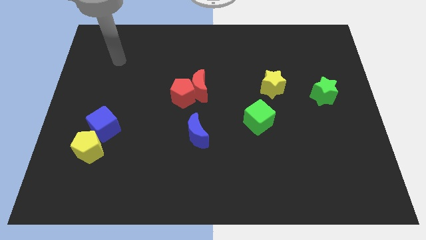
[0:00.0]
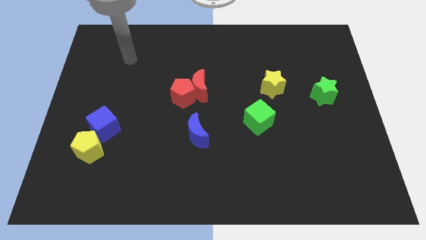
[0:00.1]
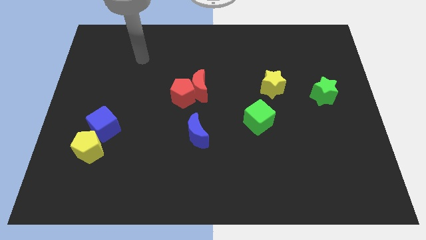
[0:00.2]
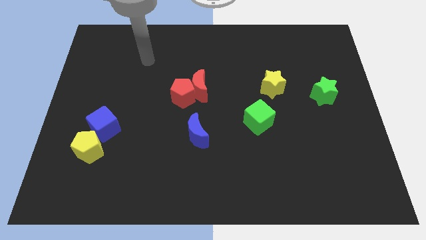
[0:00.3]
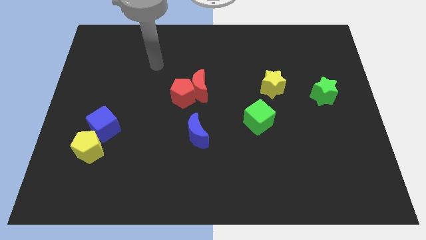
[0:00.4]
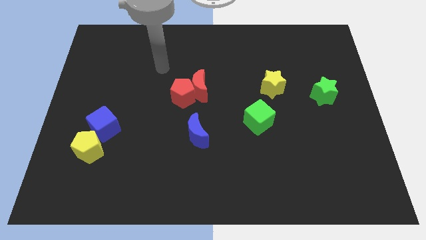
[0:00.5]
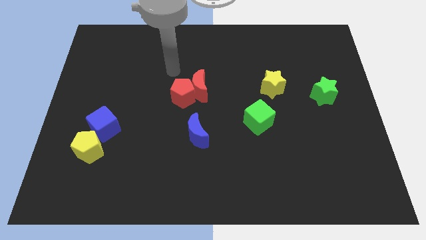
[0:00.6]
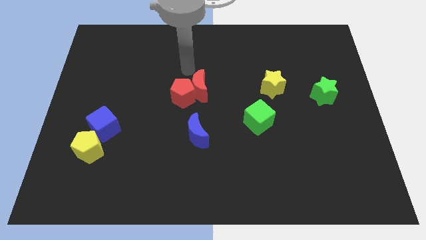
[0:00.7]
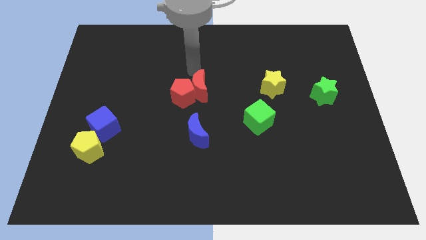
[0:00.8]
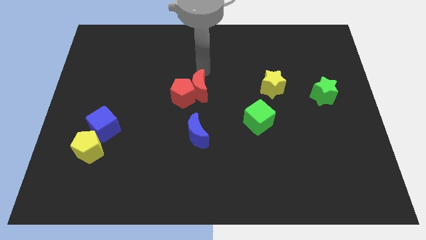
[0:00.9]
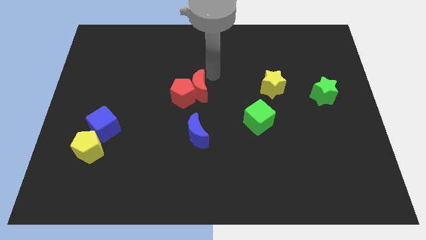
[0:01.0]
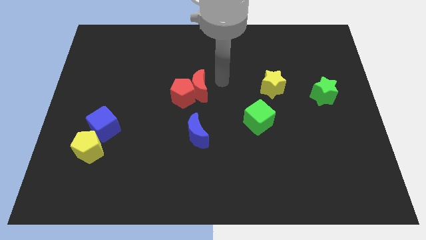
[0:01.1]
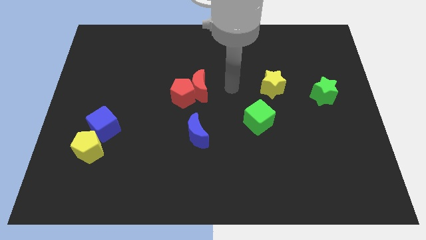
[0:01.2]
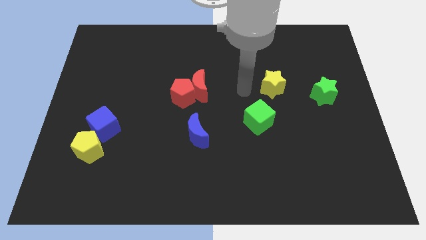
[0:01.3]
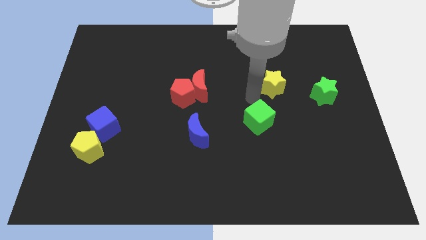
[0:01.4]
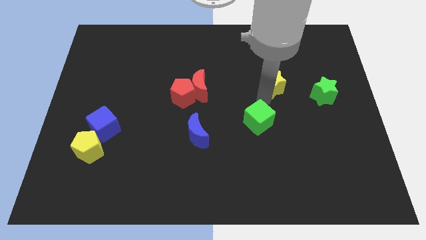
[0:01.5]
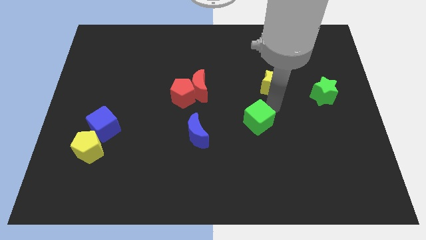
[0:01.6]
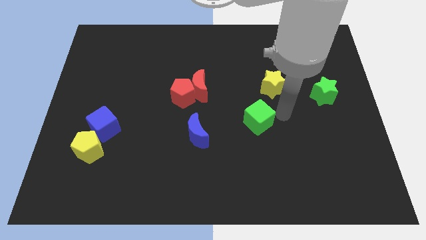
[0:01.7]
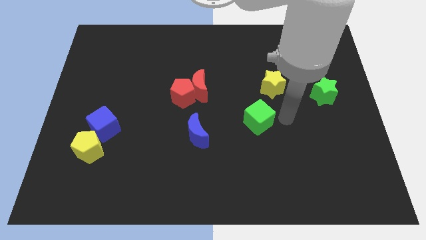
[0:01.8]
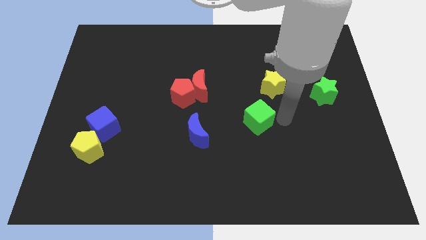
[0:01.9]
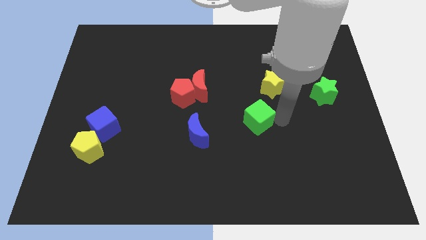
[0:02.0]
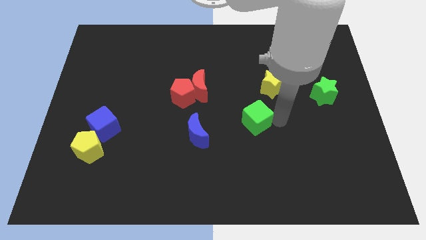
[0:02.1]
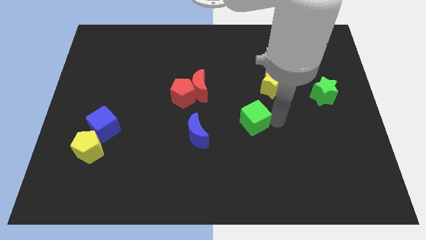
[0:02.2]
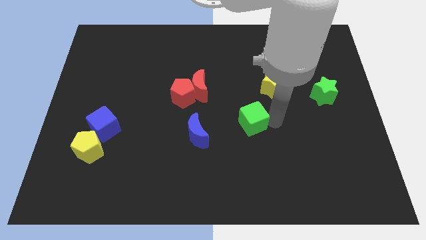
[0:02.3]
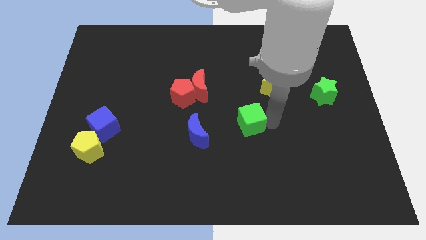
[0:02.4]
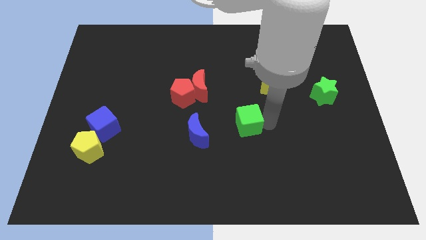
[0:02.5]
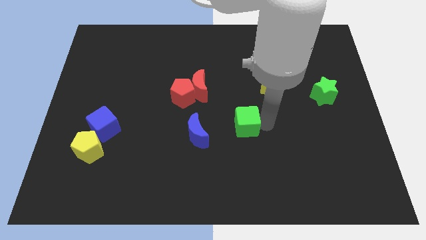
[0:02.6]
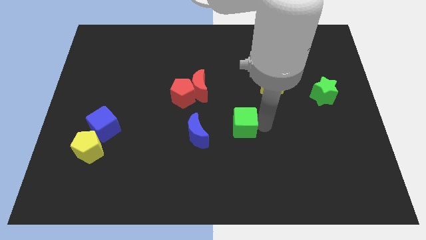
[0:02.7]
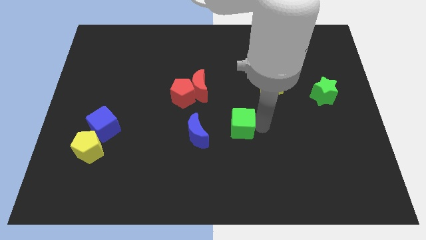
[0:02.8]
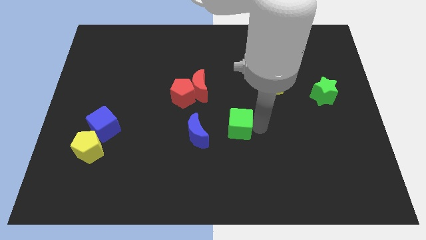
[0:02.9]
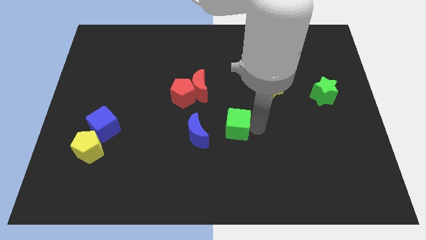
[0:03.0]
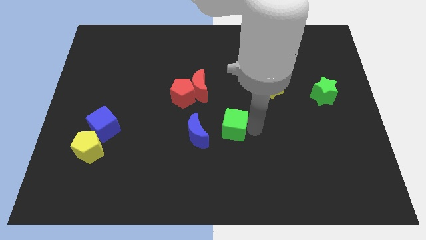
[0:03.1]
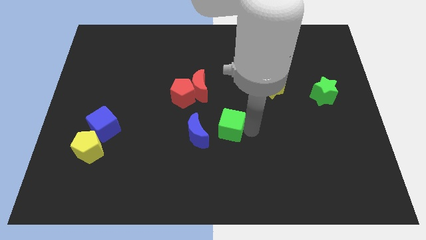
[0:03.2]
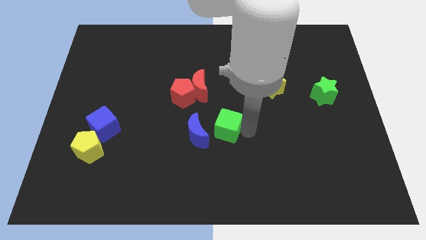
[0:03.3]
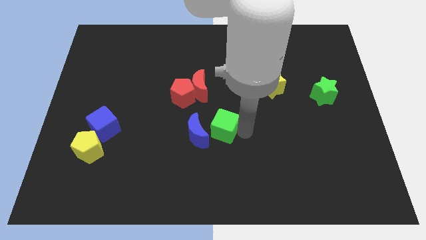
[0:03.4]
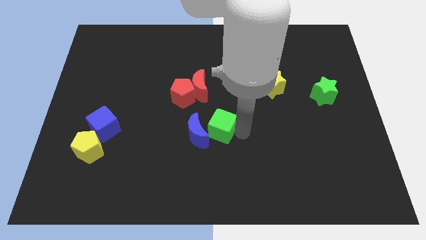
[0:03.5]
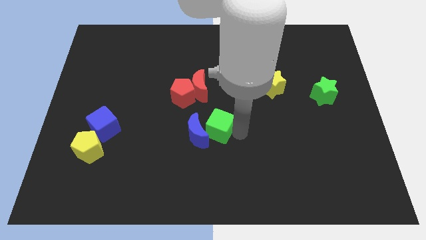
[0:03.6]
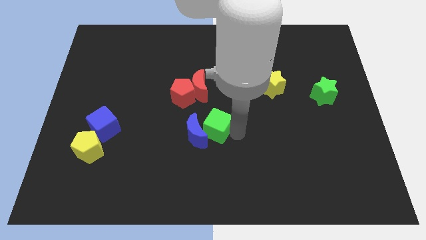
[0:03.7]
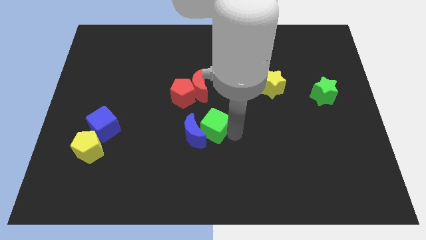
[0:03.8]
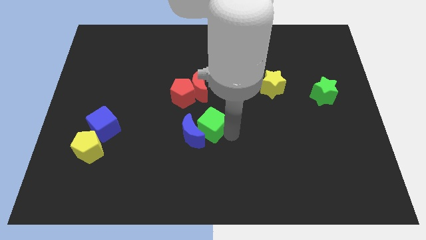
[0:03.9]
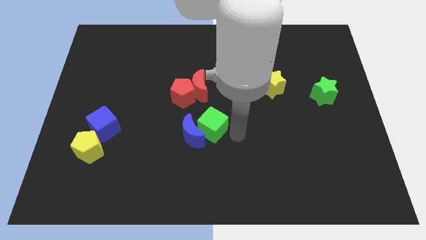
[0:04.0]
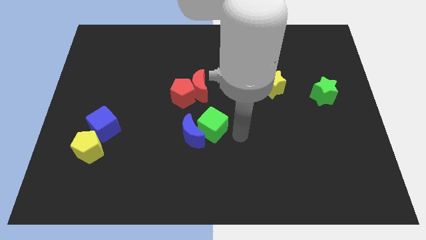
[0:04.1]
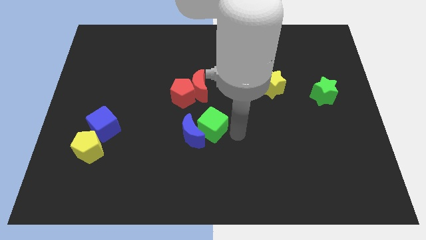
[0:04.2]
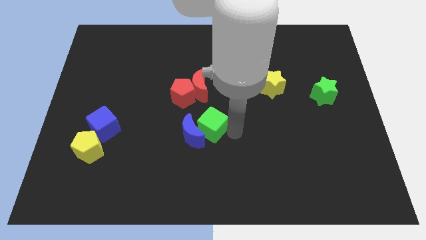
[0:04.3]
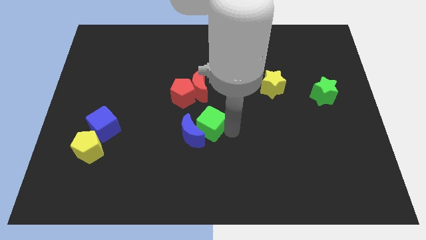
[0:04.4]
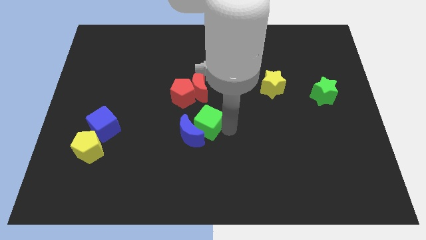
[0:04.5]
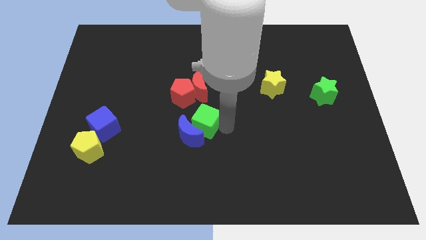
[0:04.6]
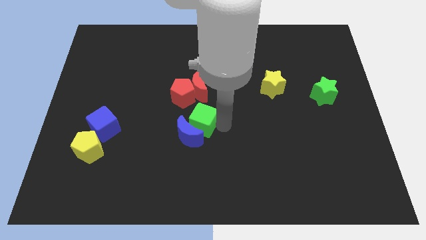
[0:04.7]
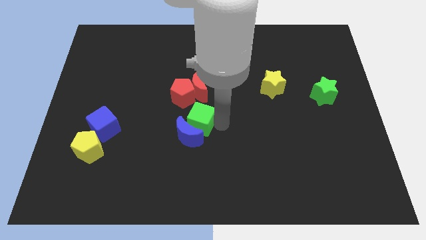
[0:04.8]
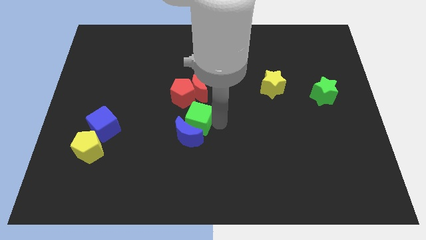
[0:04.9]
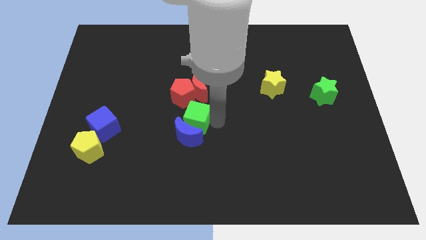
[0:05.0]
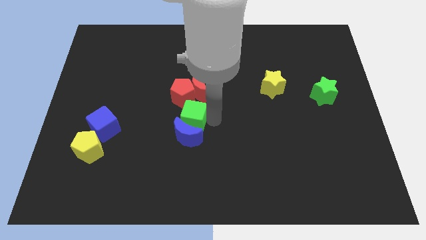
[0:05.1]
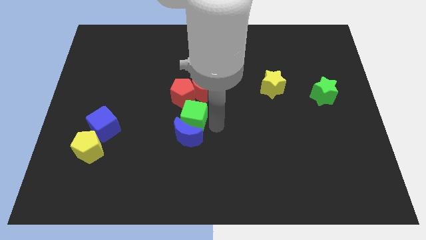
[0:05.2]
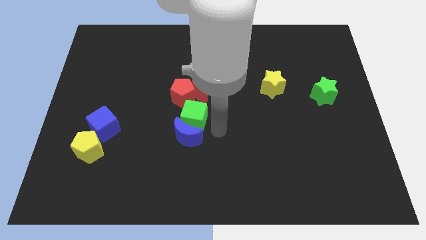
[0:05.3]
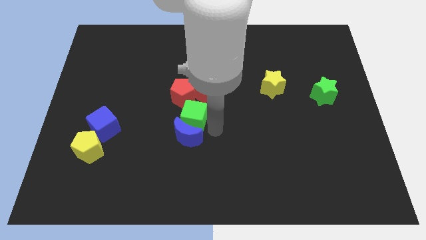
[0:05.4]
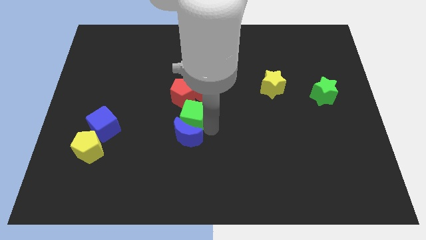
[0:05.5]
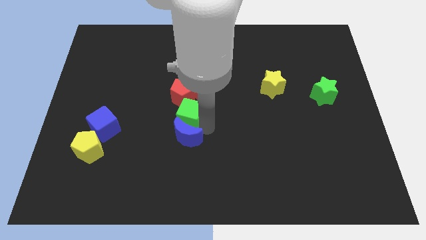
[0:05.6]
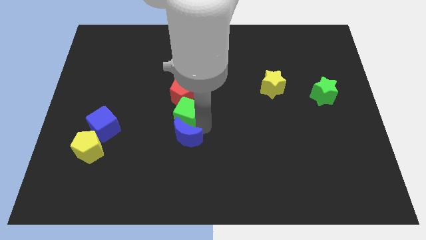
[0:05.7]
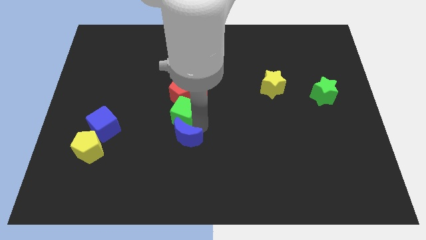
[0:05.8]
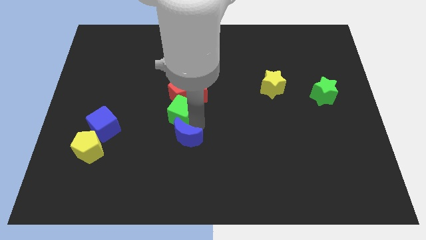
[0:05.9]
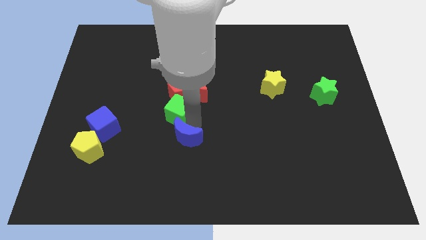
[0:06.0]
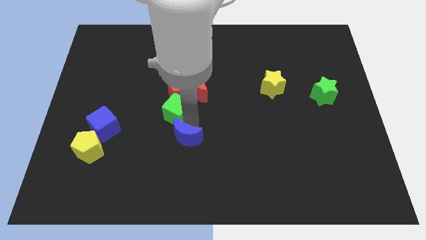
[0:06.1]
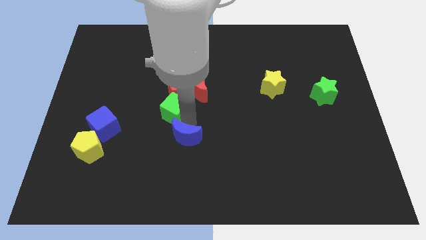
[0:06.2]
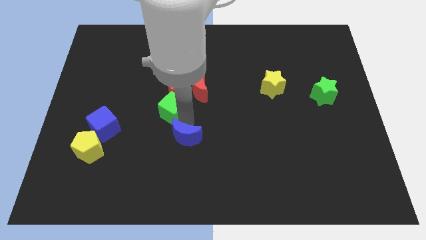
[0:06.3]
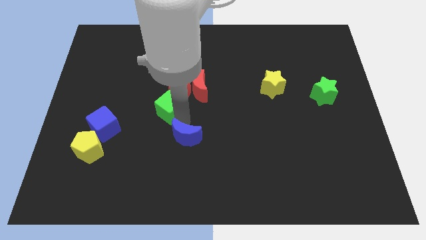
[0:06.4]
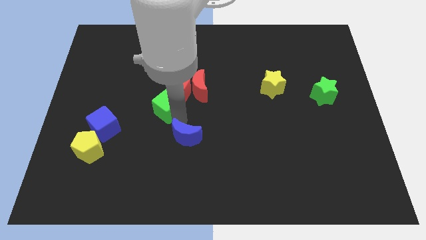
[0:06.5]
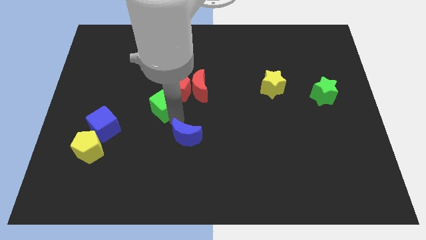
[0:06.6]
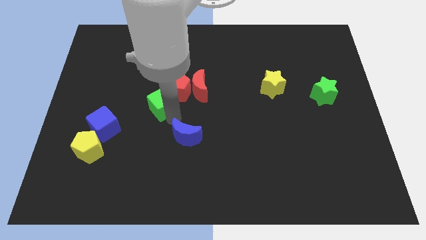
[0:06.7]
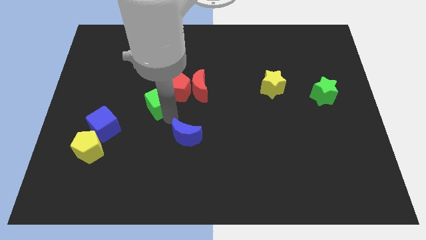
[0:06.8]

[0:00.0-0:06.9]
put the green cube to the left side of the red moon

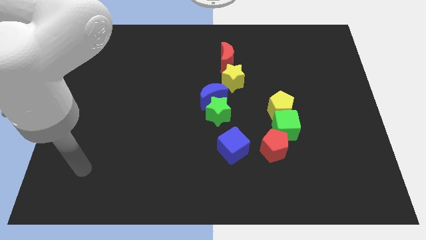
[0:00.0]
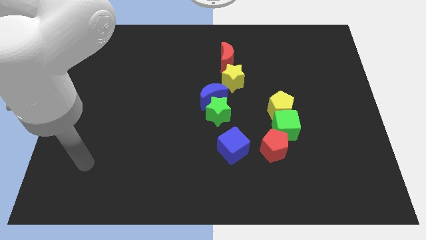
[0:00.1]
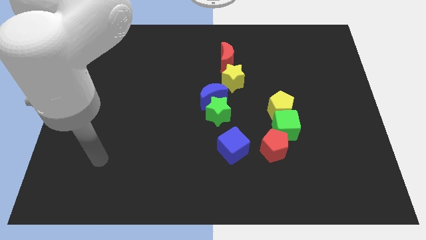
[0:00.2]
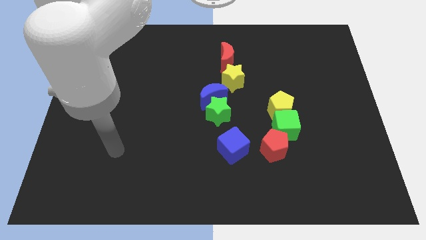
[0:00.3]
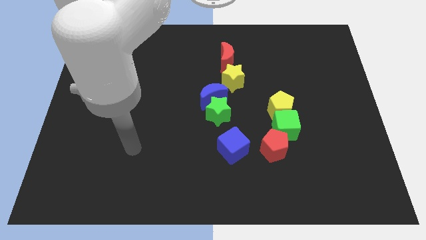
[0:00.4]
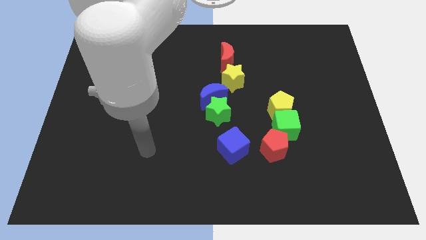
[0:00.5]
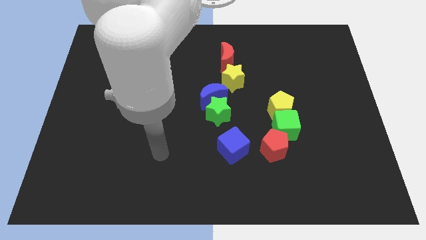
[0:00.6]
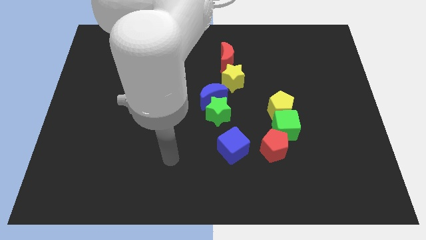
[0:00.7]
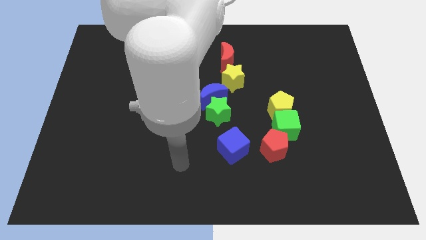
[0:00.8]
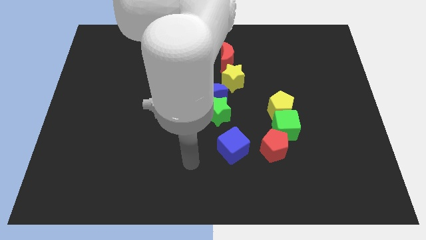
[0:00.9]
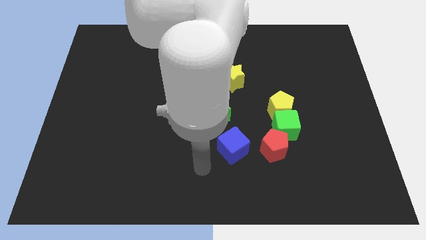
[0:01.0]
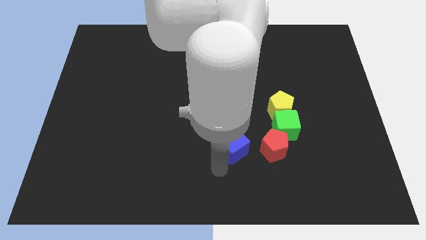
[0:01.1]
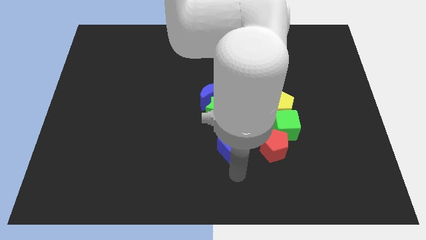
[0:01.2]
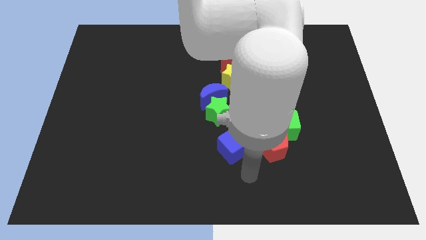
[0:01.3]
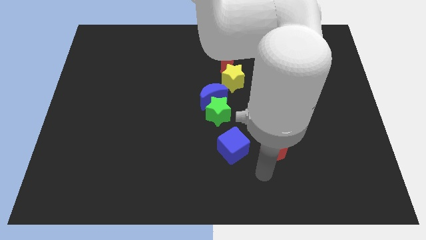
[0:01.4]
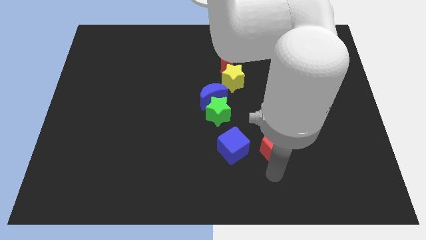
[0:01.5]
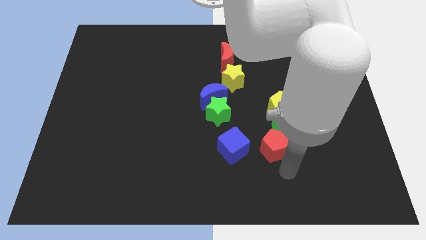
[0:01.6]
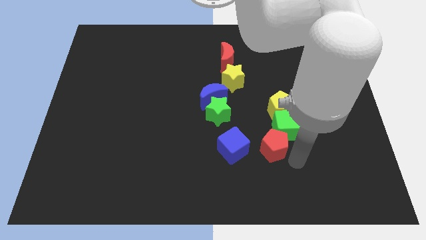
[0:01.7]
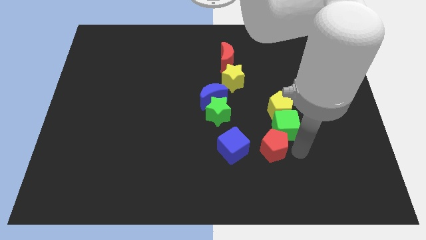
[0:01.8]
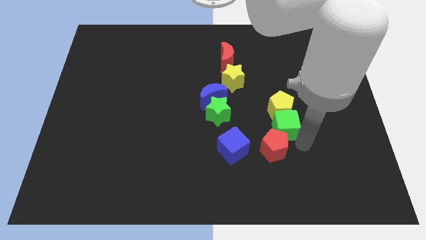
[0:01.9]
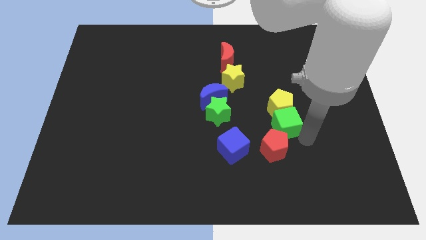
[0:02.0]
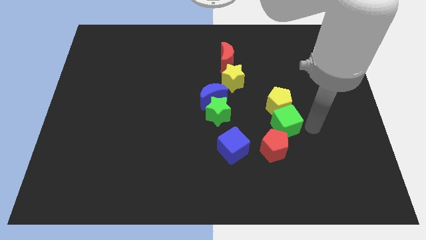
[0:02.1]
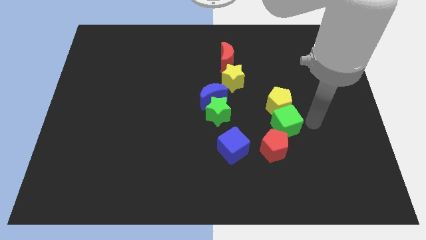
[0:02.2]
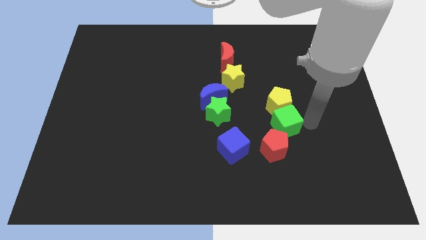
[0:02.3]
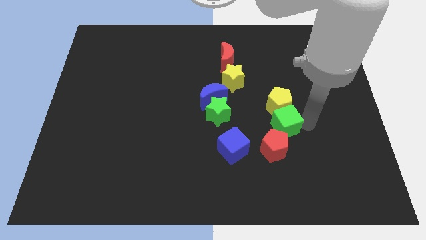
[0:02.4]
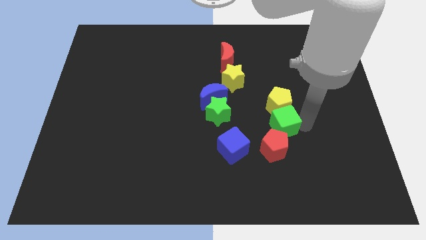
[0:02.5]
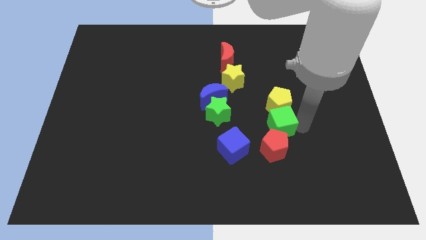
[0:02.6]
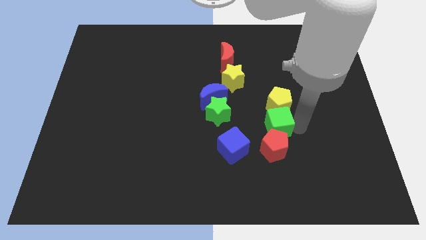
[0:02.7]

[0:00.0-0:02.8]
slide the green cube to the top right of the blue cube
